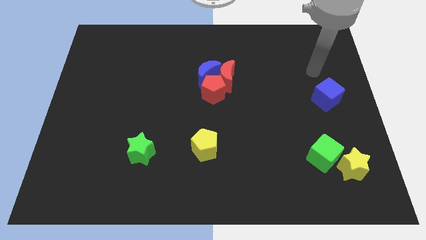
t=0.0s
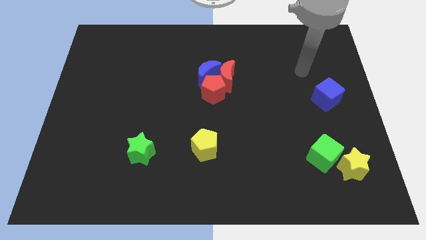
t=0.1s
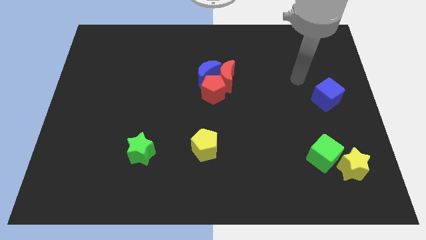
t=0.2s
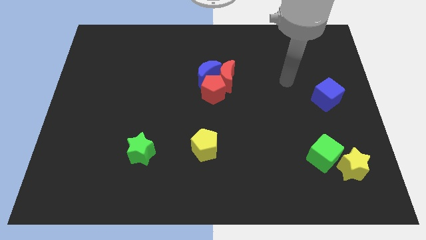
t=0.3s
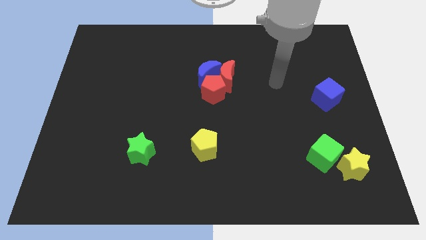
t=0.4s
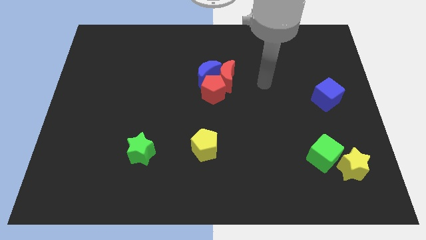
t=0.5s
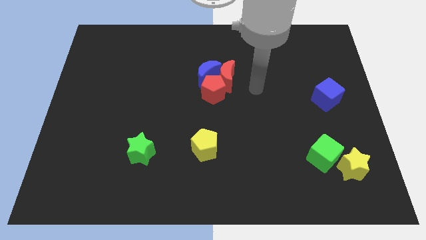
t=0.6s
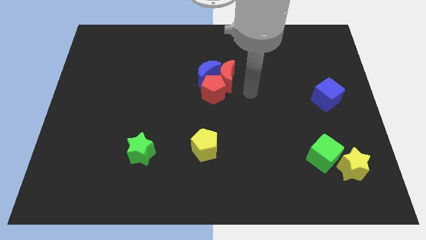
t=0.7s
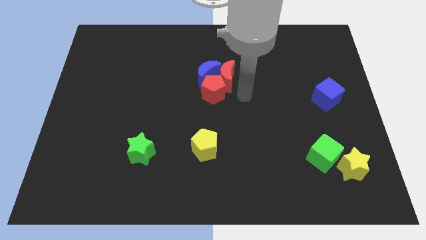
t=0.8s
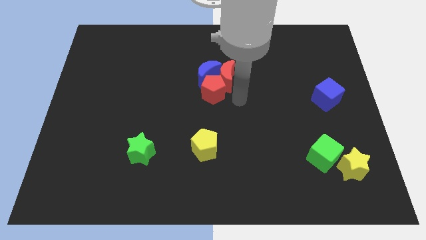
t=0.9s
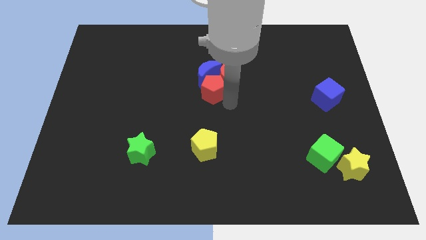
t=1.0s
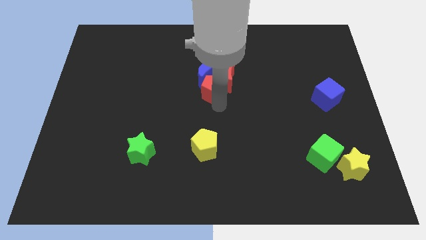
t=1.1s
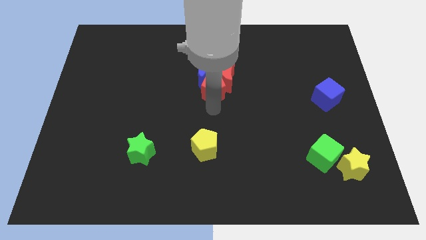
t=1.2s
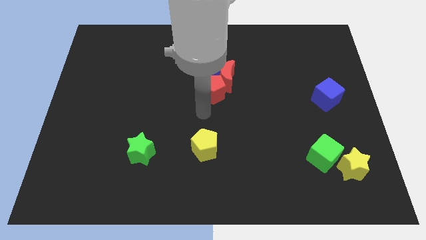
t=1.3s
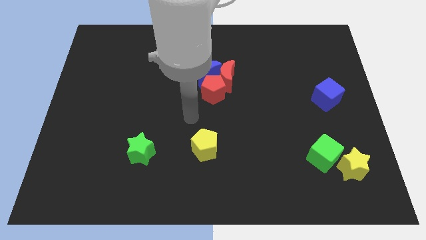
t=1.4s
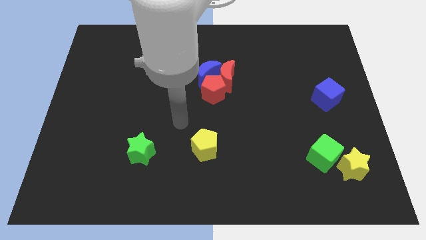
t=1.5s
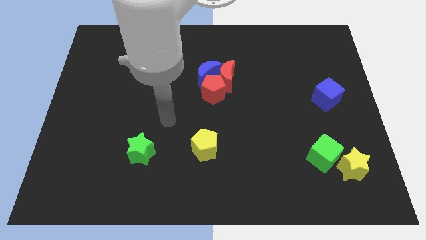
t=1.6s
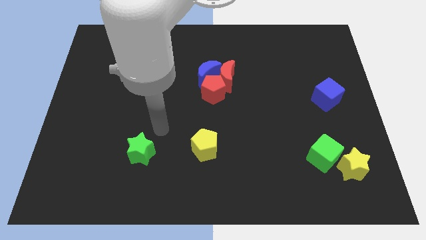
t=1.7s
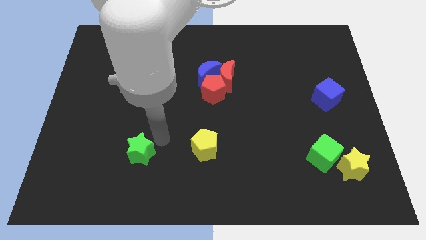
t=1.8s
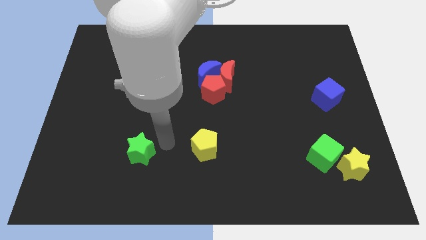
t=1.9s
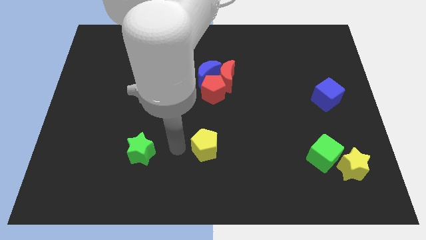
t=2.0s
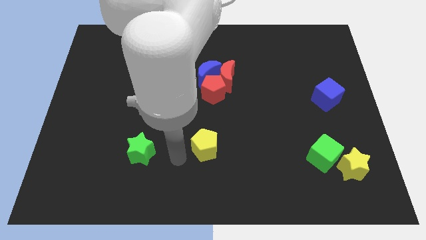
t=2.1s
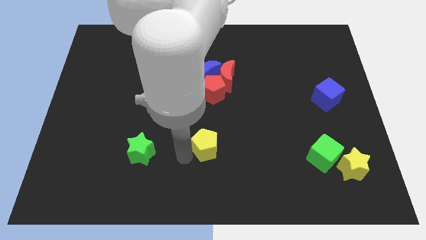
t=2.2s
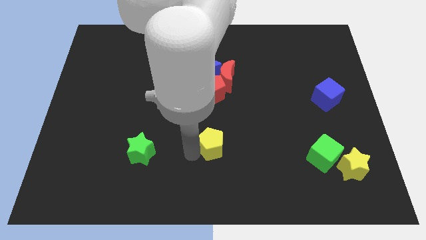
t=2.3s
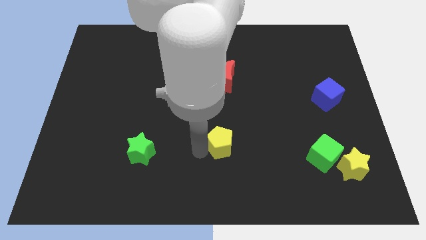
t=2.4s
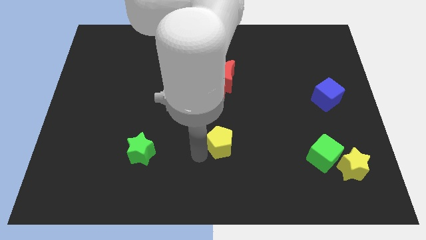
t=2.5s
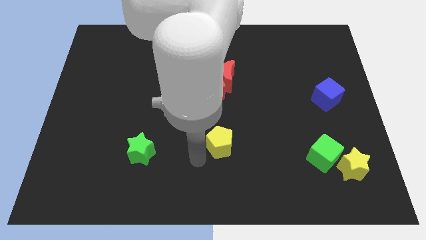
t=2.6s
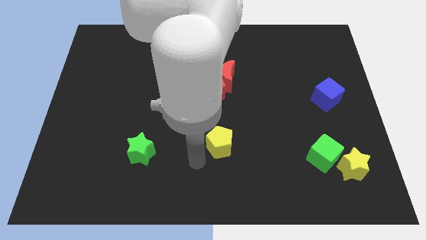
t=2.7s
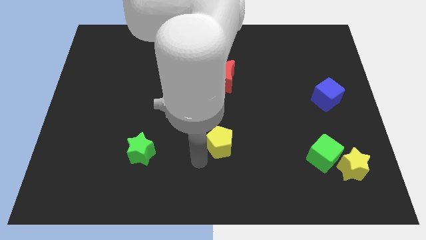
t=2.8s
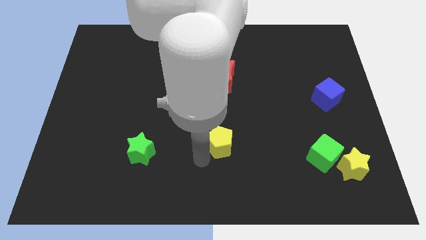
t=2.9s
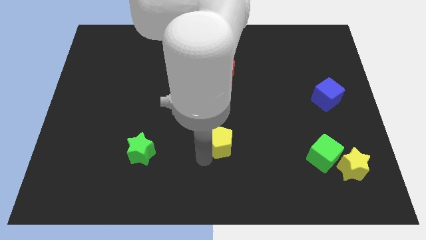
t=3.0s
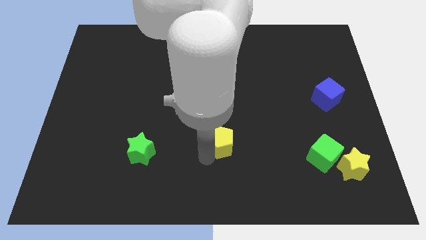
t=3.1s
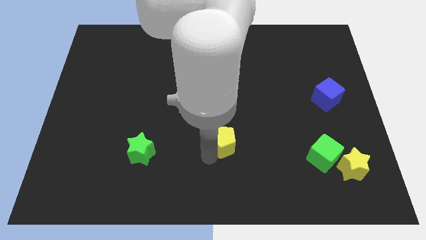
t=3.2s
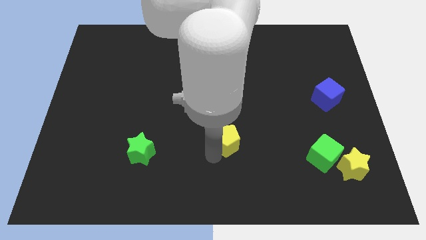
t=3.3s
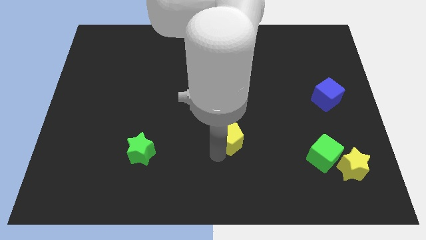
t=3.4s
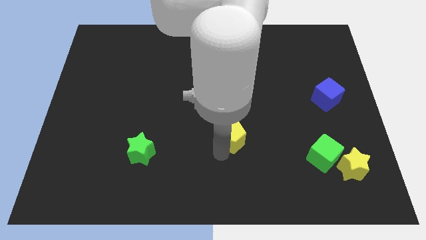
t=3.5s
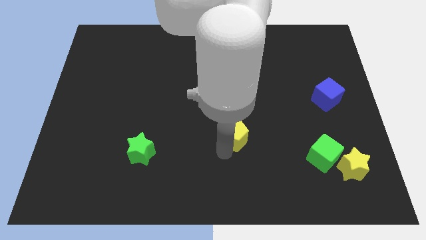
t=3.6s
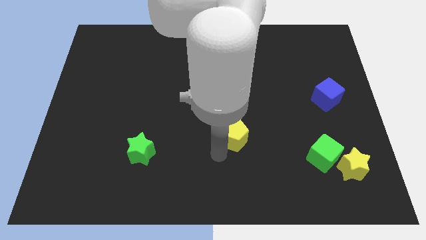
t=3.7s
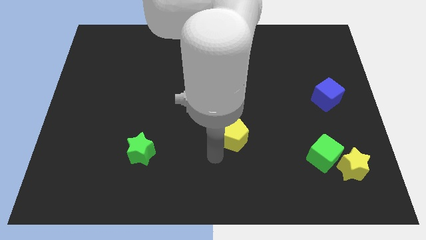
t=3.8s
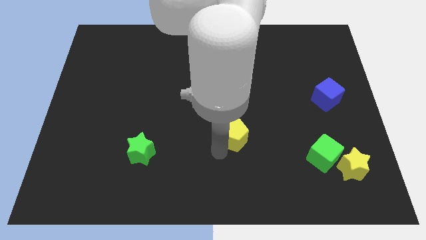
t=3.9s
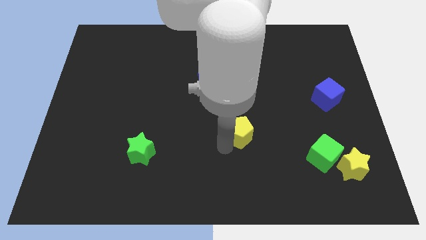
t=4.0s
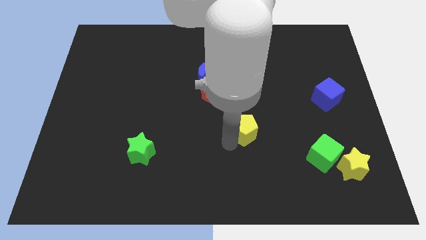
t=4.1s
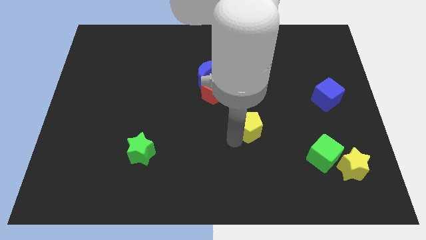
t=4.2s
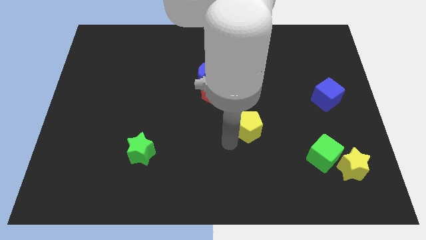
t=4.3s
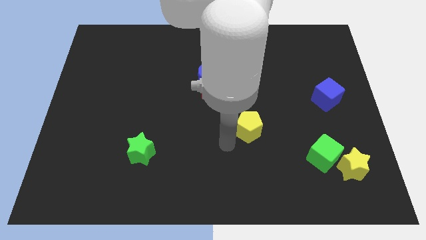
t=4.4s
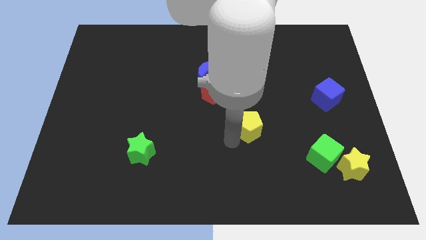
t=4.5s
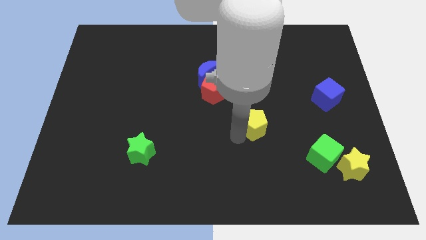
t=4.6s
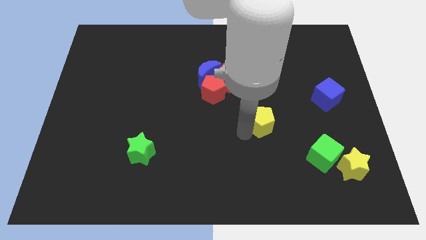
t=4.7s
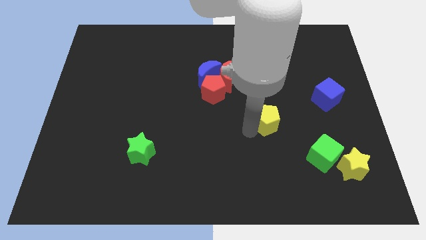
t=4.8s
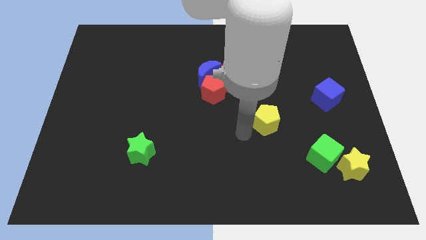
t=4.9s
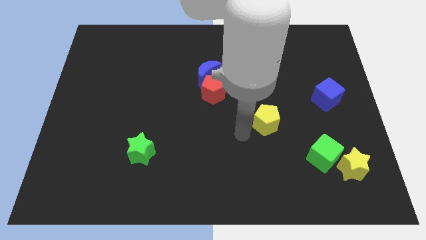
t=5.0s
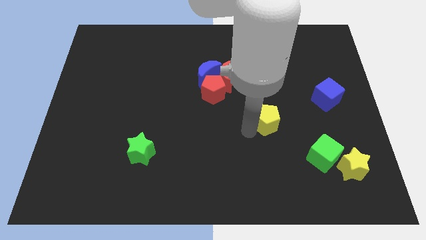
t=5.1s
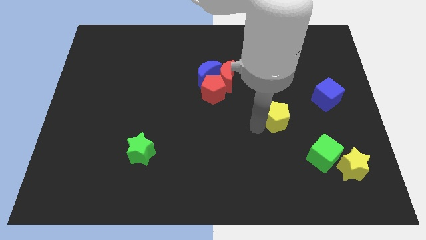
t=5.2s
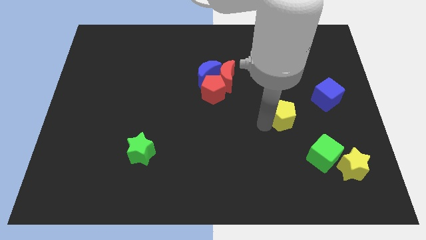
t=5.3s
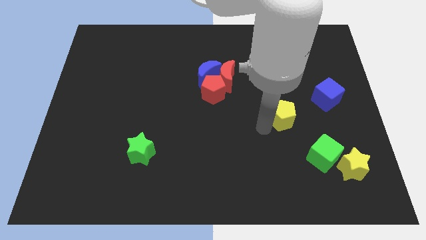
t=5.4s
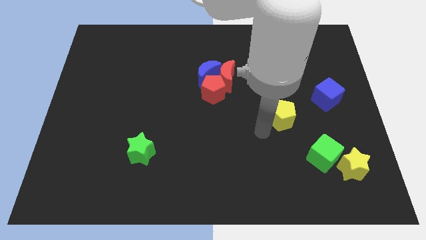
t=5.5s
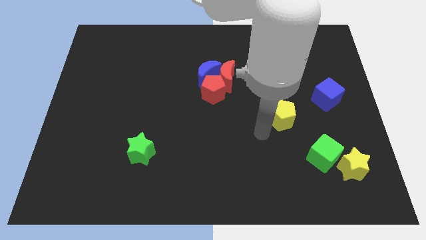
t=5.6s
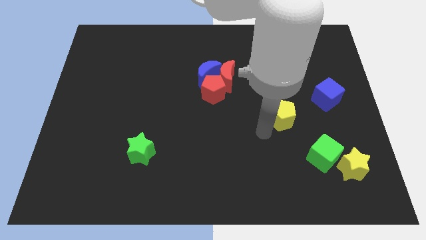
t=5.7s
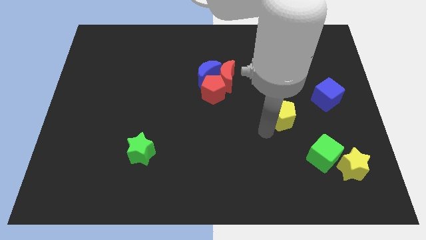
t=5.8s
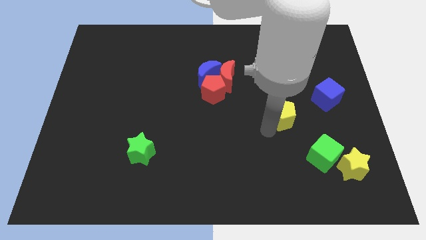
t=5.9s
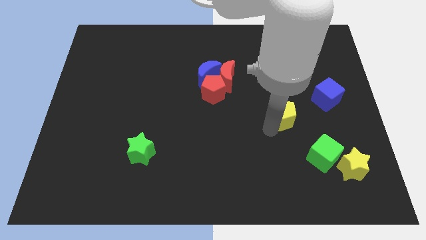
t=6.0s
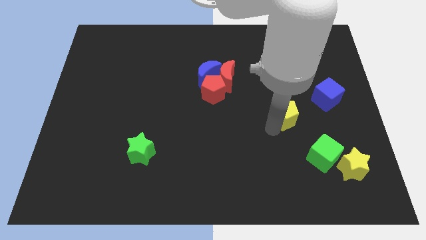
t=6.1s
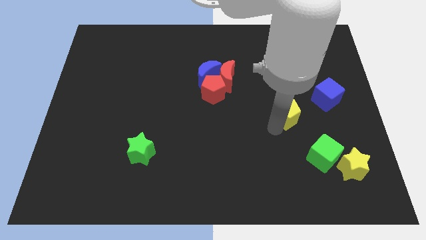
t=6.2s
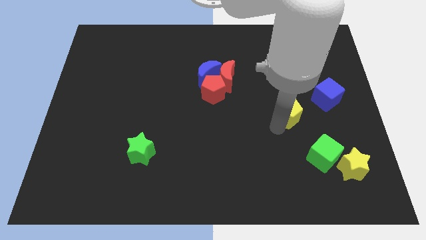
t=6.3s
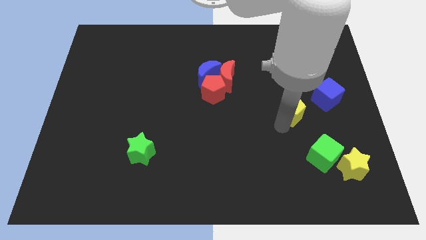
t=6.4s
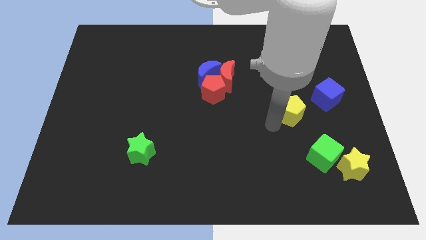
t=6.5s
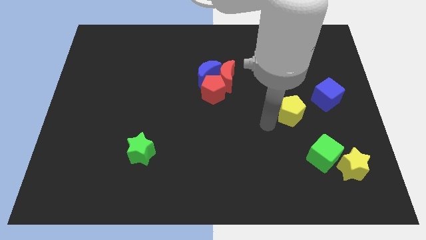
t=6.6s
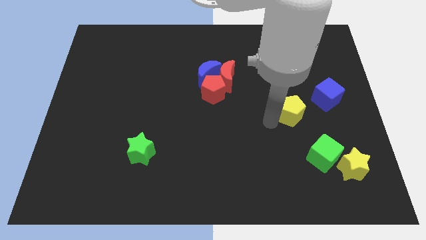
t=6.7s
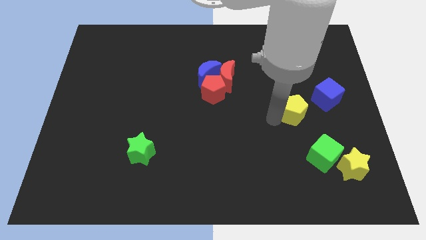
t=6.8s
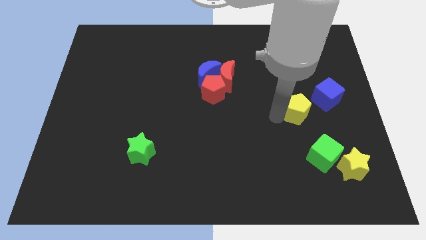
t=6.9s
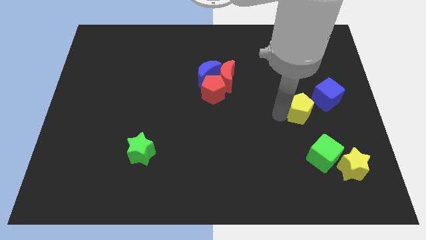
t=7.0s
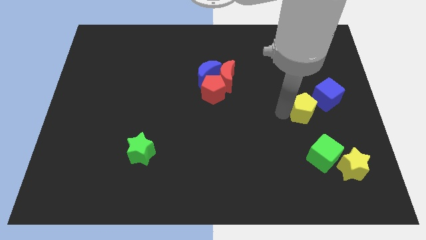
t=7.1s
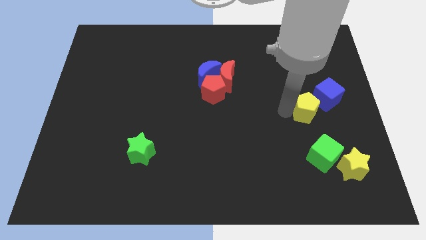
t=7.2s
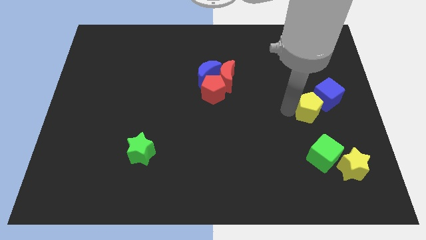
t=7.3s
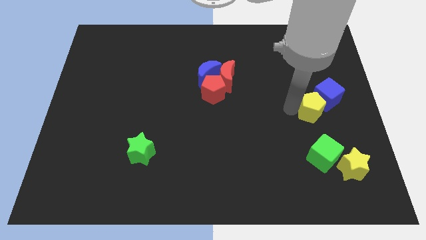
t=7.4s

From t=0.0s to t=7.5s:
put the yellow pentagon to the blue cube
